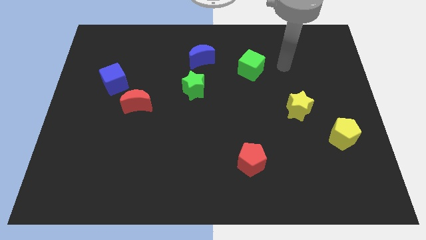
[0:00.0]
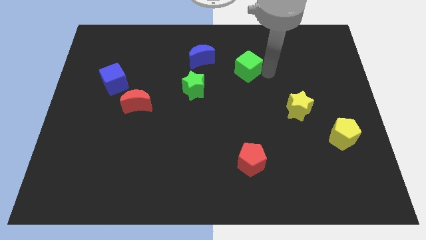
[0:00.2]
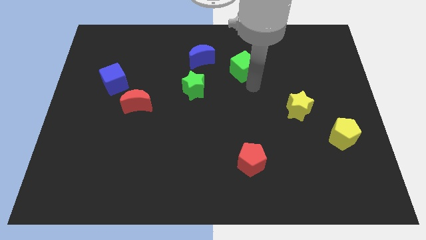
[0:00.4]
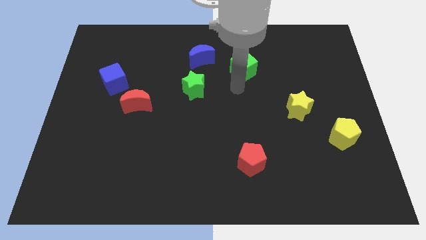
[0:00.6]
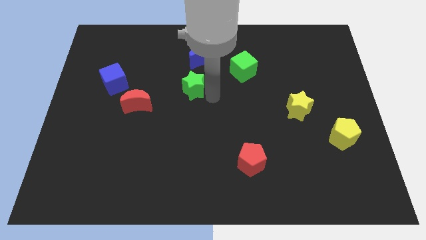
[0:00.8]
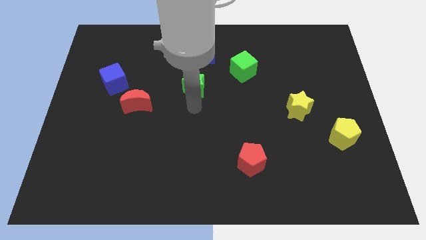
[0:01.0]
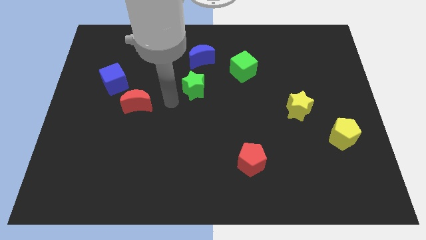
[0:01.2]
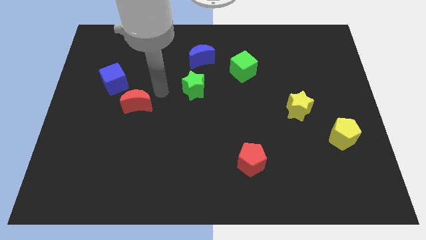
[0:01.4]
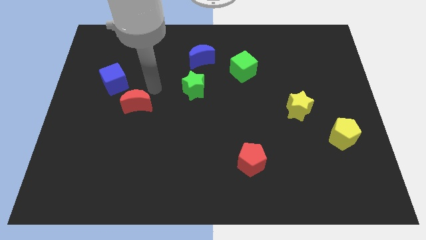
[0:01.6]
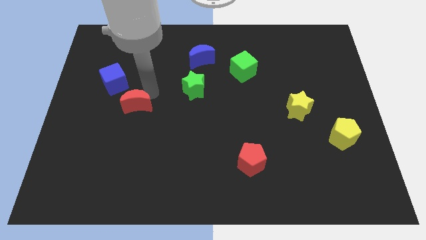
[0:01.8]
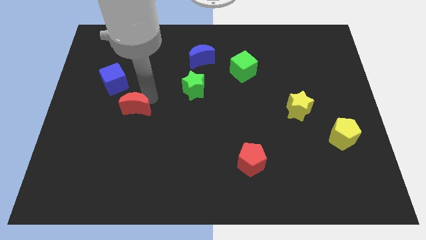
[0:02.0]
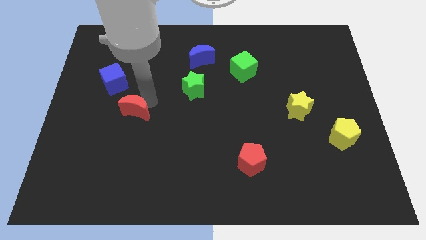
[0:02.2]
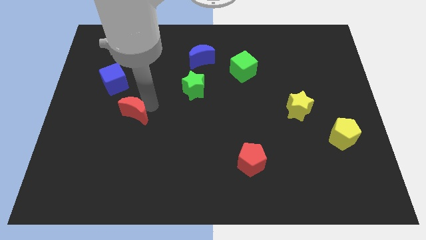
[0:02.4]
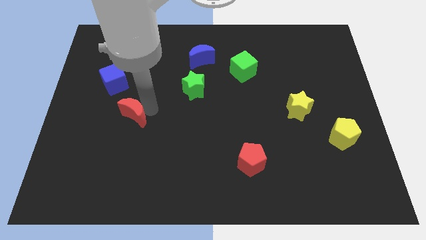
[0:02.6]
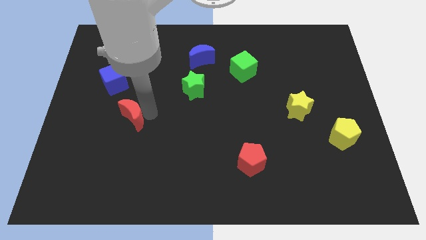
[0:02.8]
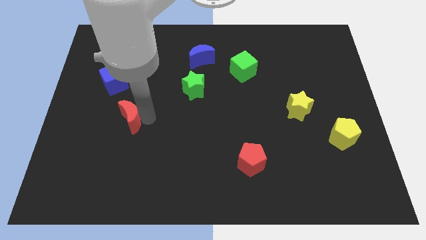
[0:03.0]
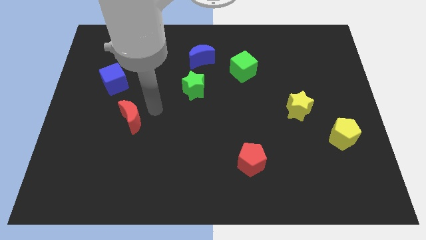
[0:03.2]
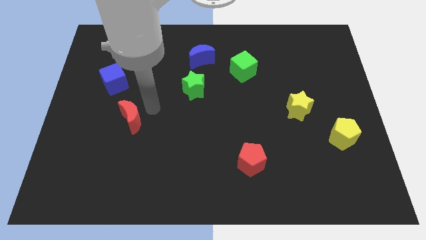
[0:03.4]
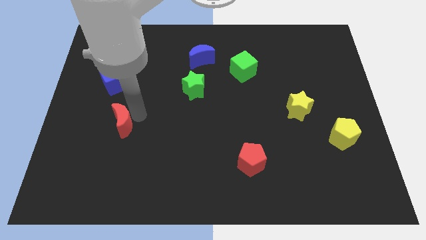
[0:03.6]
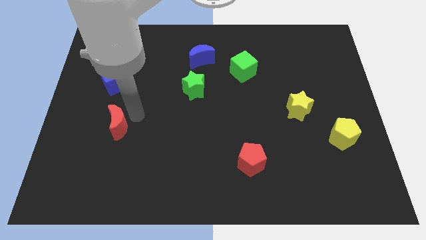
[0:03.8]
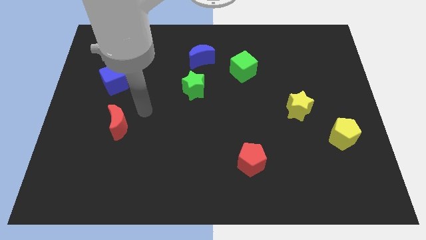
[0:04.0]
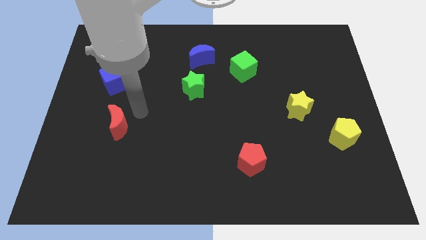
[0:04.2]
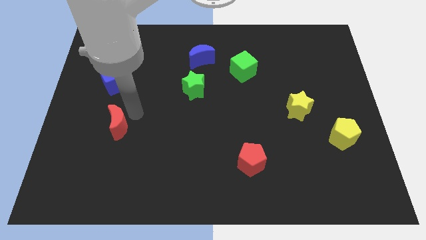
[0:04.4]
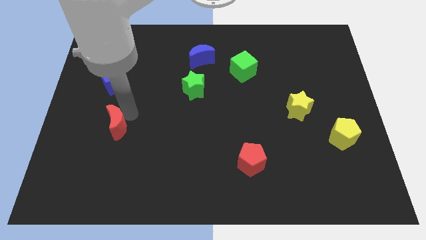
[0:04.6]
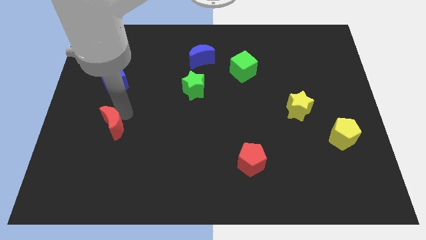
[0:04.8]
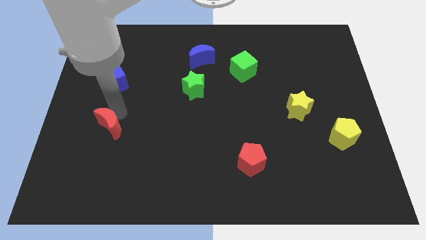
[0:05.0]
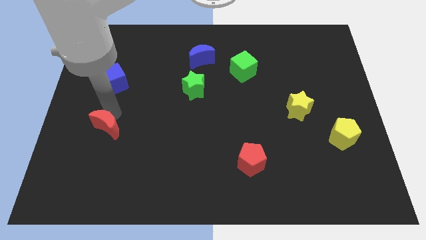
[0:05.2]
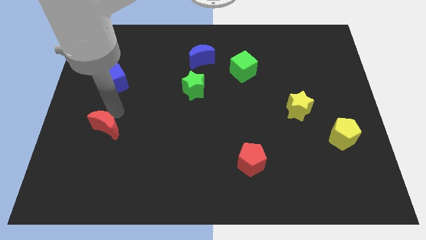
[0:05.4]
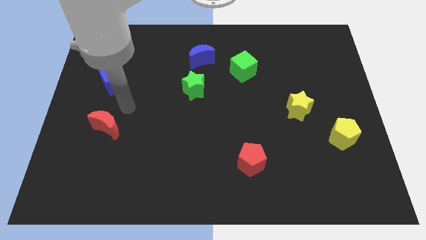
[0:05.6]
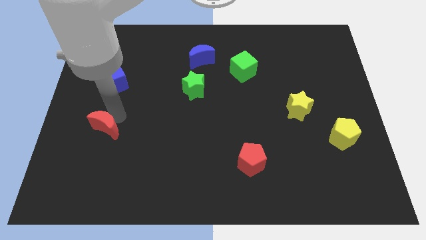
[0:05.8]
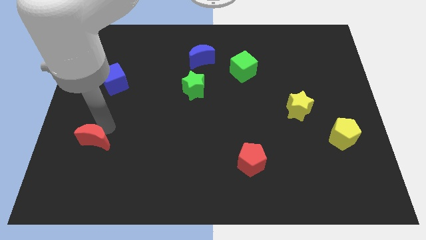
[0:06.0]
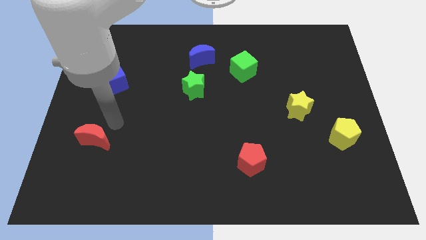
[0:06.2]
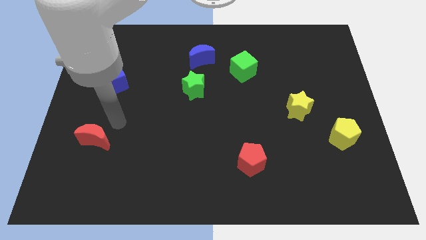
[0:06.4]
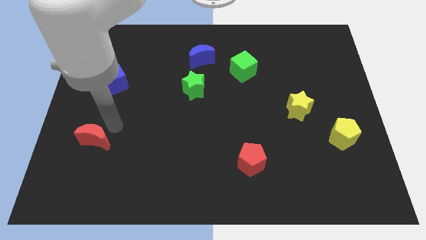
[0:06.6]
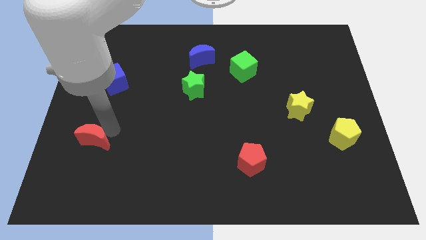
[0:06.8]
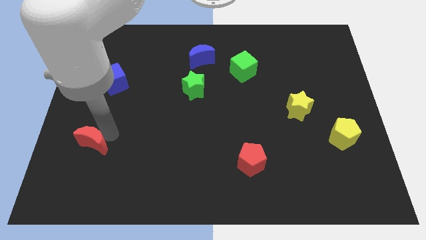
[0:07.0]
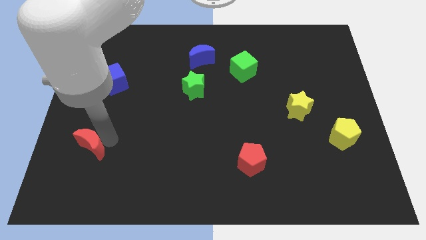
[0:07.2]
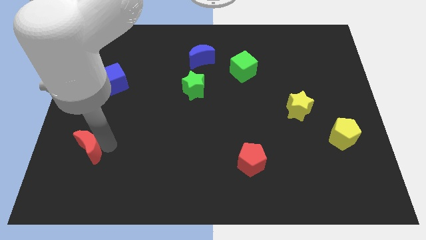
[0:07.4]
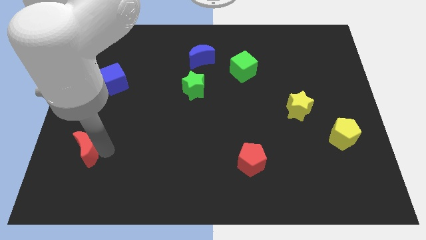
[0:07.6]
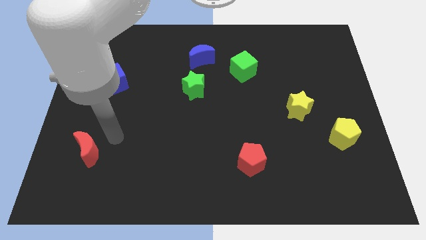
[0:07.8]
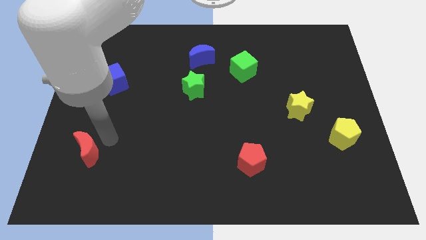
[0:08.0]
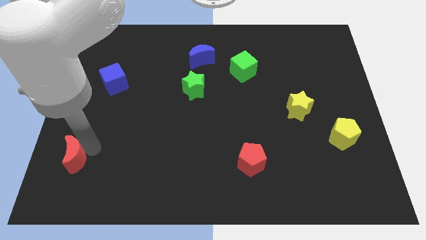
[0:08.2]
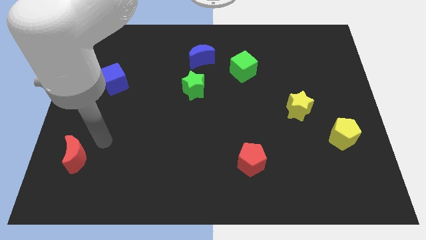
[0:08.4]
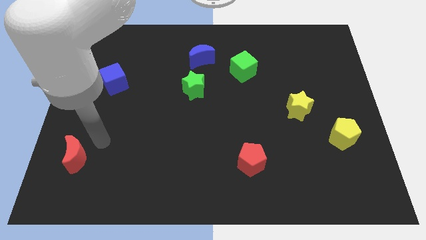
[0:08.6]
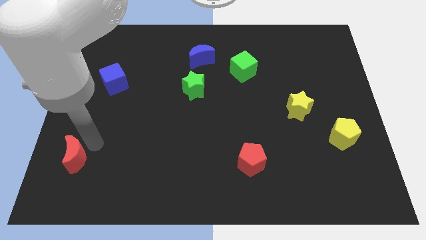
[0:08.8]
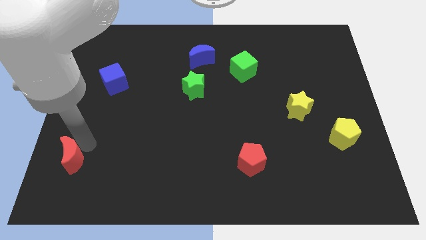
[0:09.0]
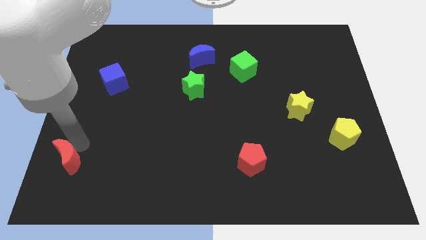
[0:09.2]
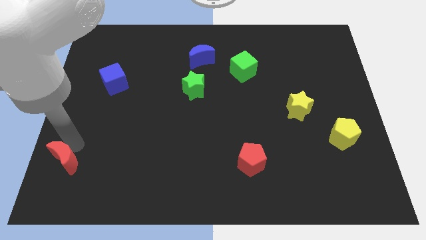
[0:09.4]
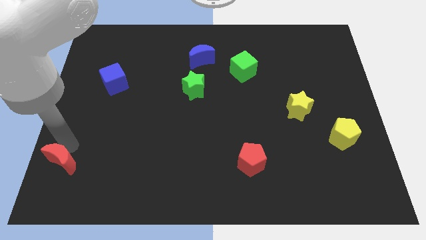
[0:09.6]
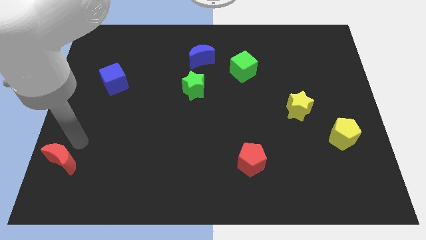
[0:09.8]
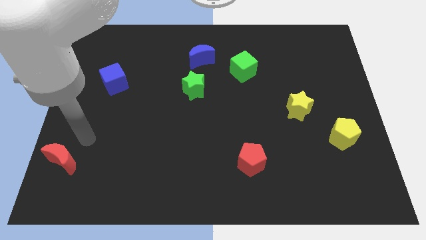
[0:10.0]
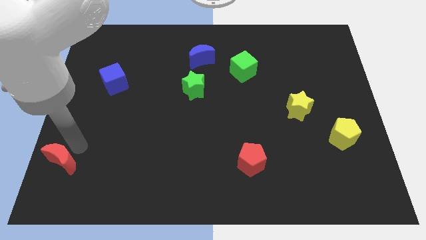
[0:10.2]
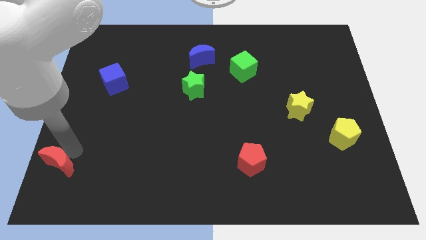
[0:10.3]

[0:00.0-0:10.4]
slide the red moon to the bottom left of the board

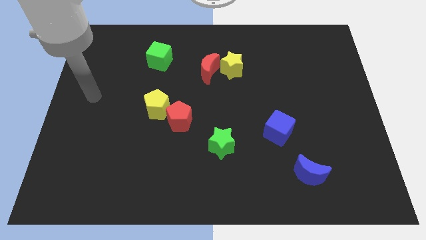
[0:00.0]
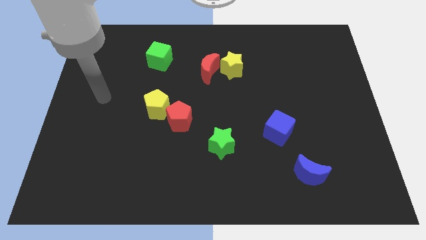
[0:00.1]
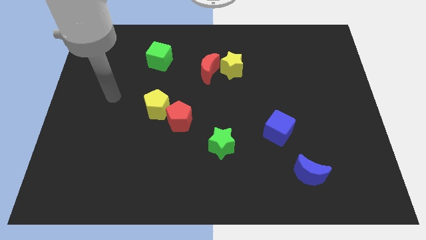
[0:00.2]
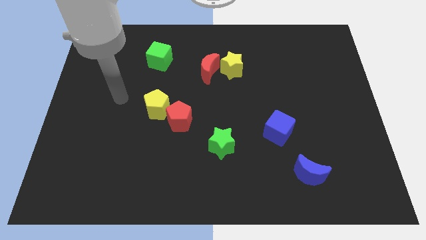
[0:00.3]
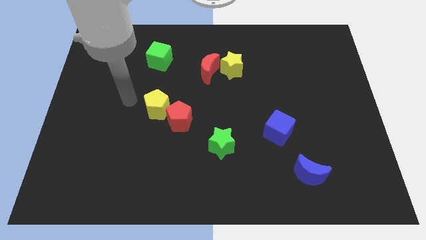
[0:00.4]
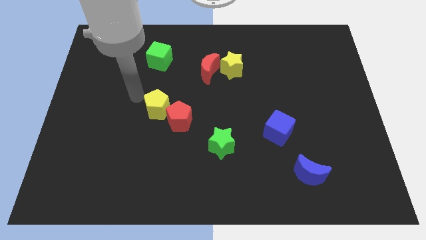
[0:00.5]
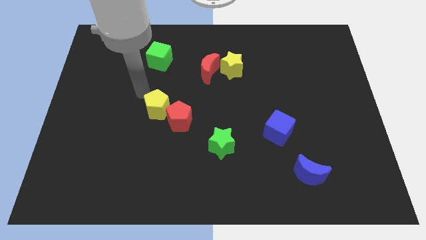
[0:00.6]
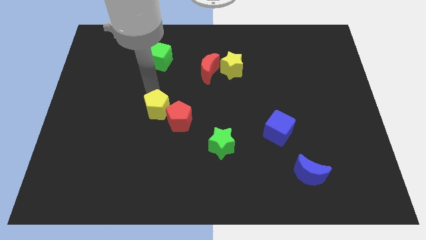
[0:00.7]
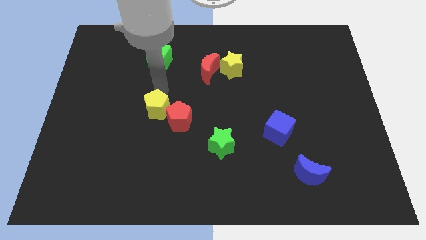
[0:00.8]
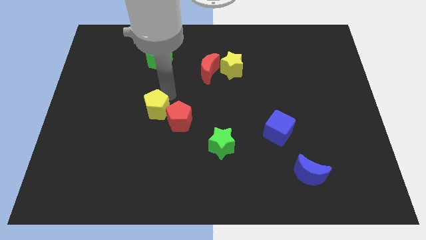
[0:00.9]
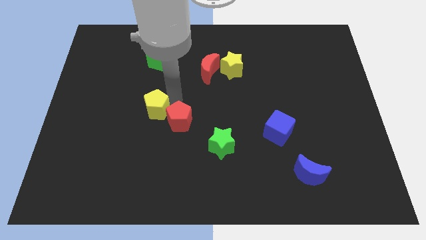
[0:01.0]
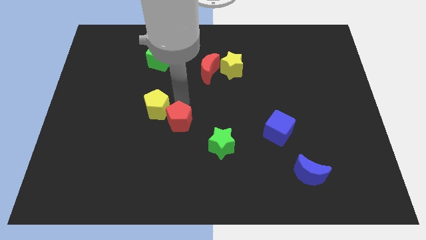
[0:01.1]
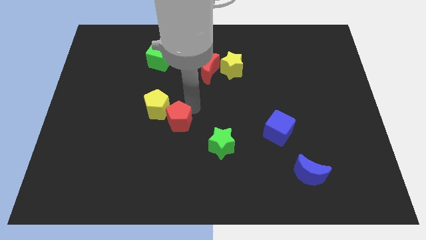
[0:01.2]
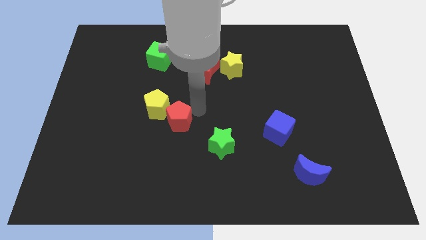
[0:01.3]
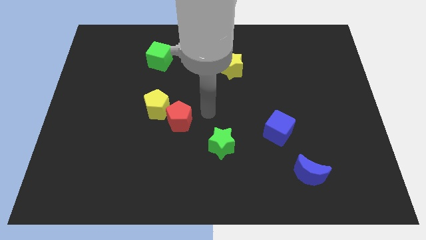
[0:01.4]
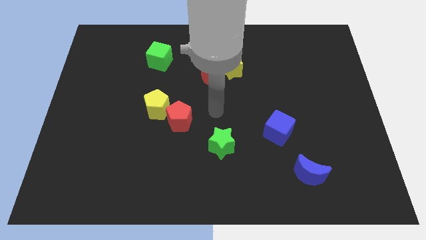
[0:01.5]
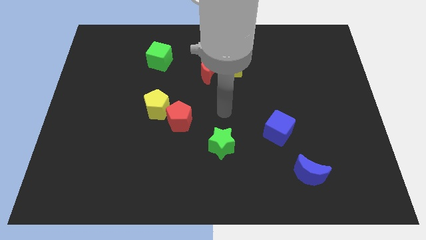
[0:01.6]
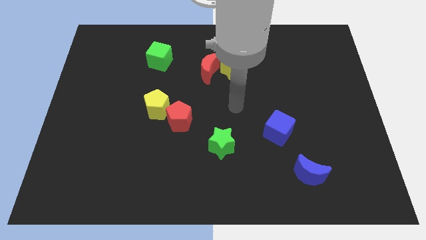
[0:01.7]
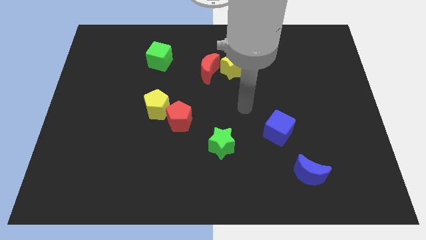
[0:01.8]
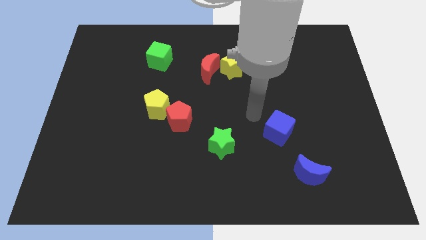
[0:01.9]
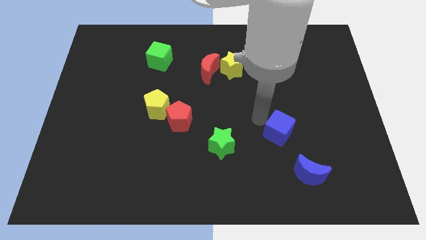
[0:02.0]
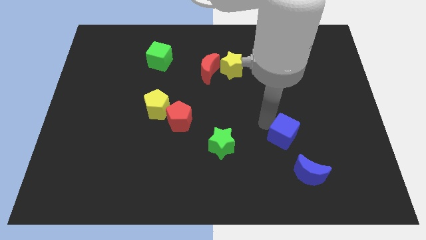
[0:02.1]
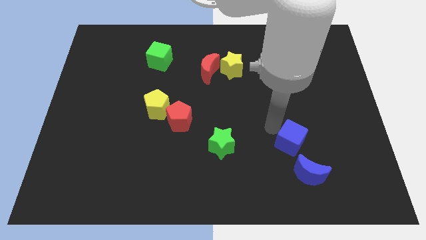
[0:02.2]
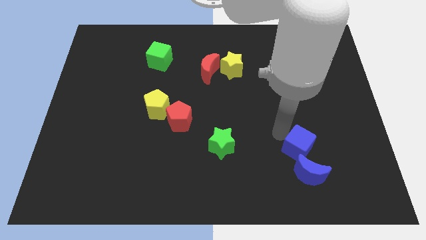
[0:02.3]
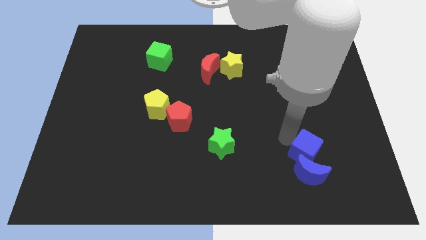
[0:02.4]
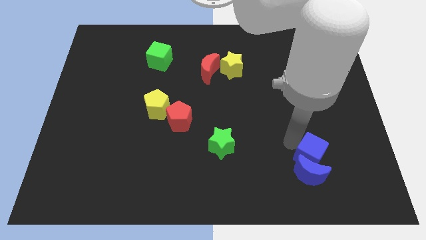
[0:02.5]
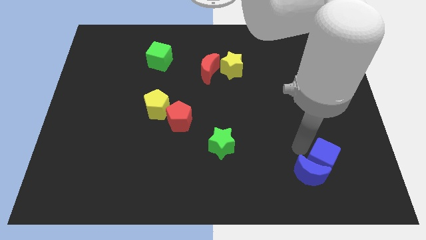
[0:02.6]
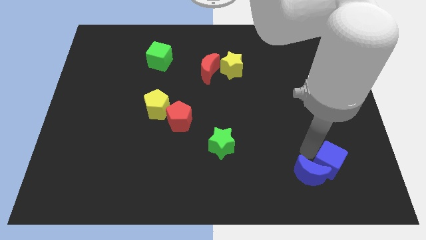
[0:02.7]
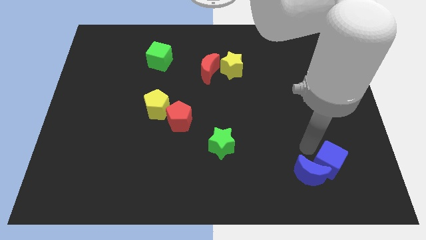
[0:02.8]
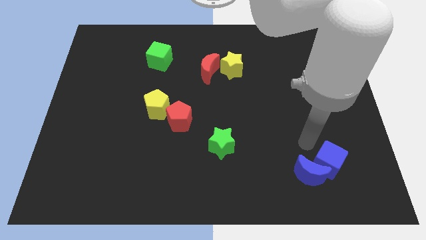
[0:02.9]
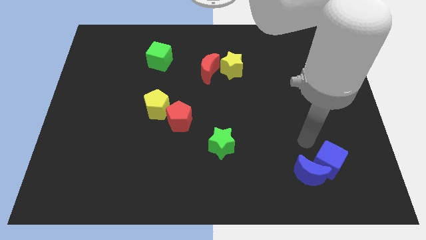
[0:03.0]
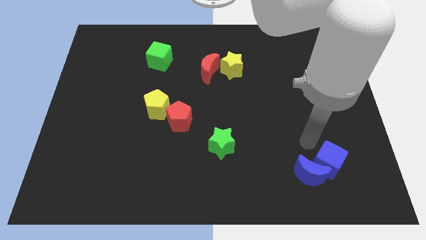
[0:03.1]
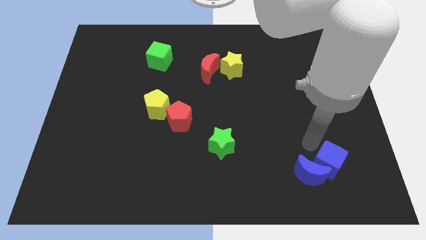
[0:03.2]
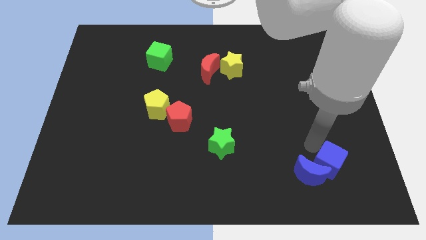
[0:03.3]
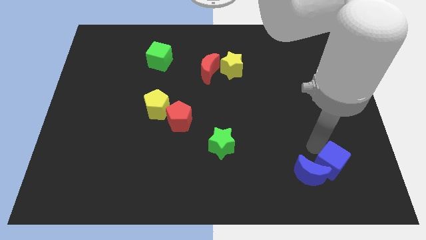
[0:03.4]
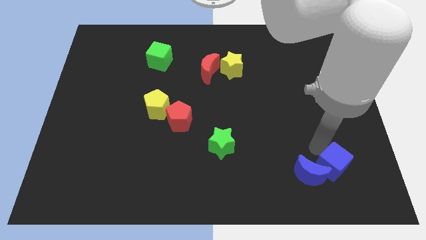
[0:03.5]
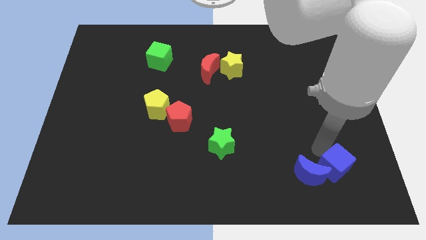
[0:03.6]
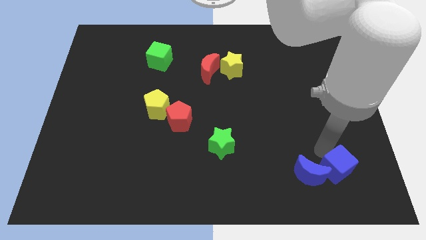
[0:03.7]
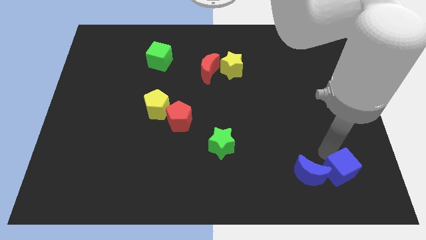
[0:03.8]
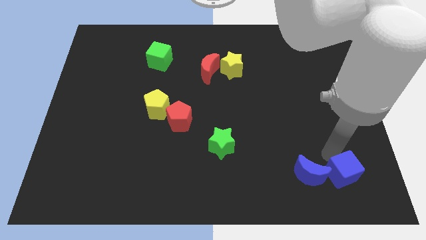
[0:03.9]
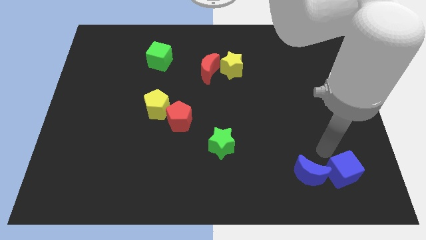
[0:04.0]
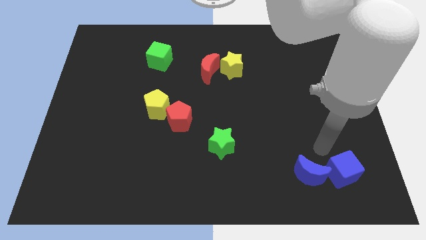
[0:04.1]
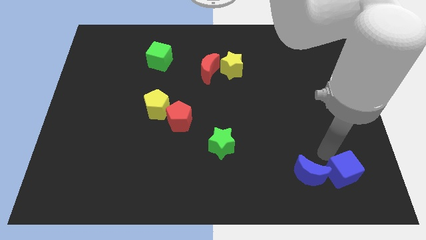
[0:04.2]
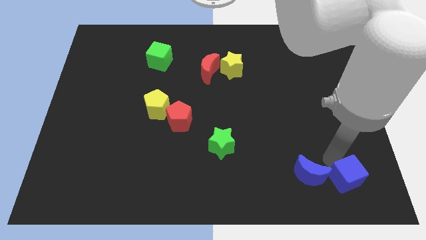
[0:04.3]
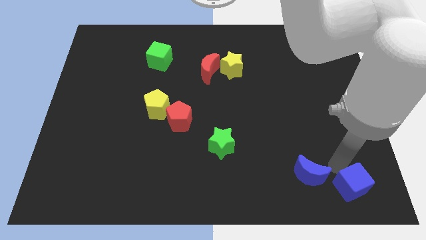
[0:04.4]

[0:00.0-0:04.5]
put the blue cube to the bottom right of the board
